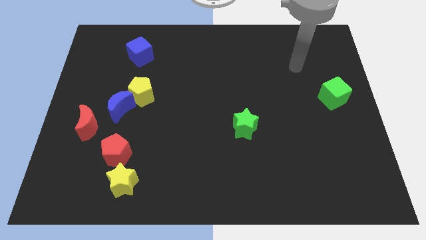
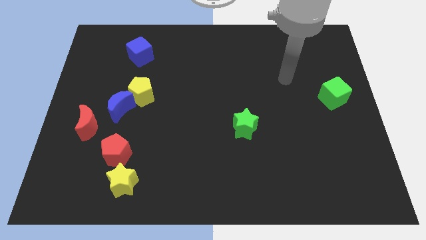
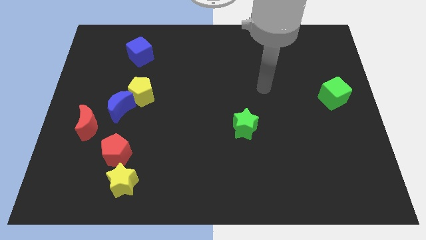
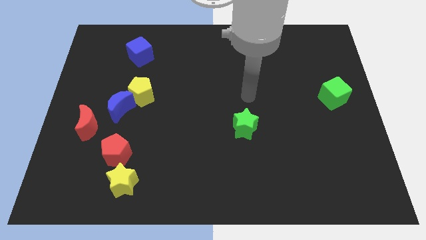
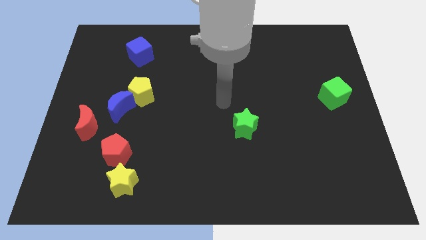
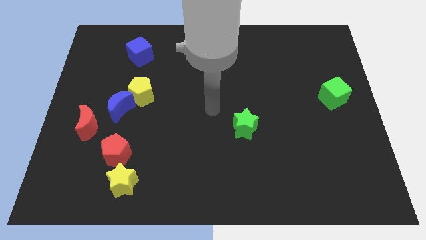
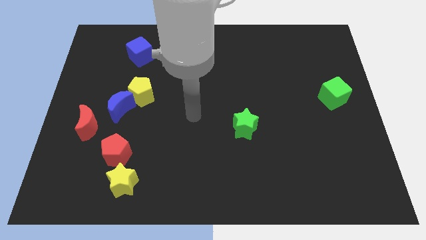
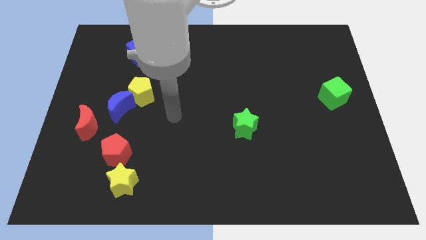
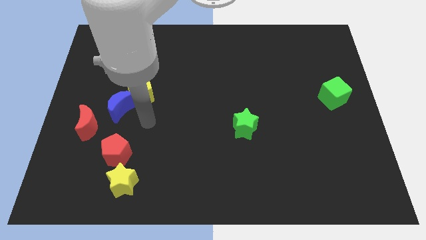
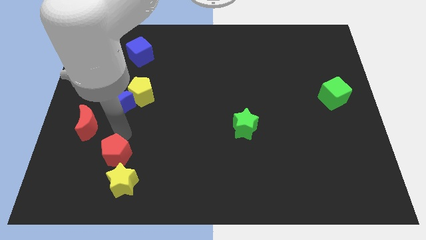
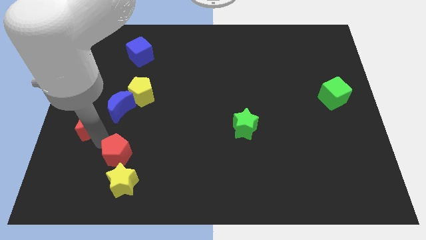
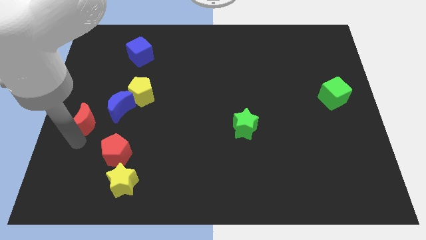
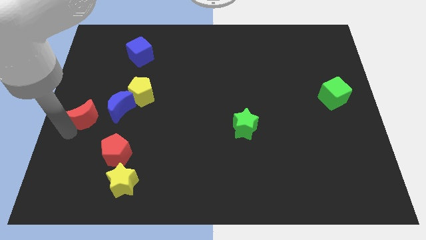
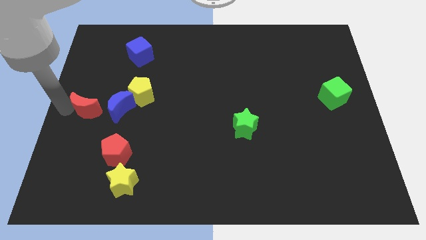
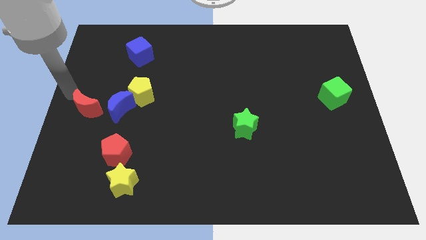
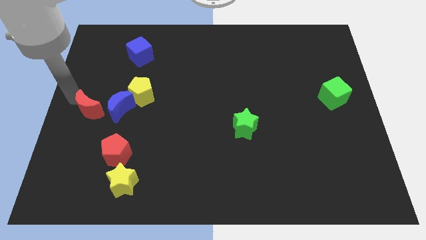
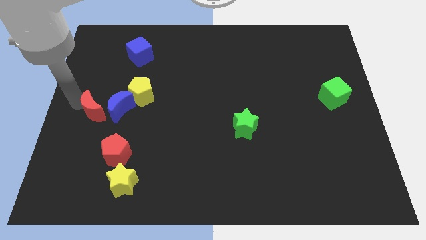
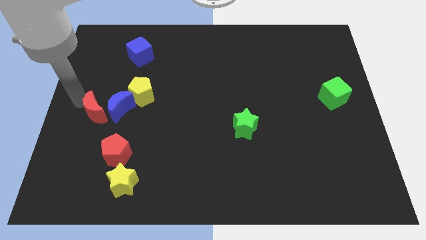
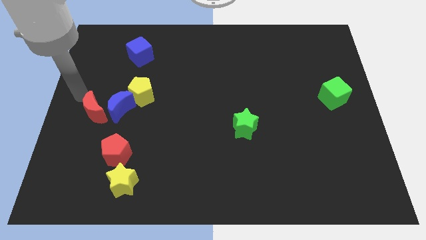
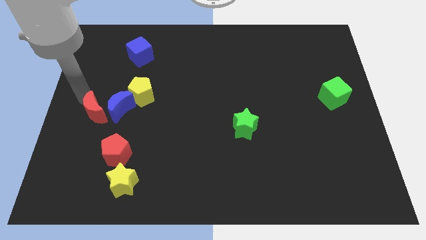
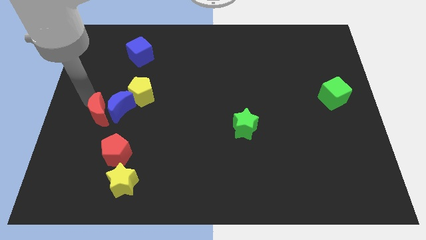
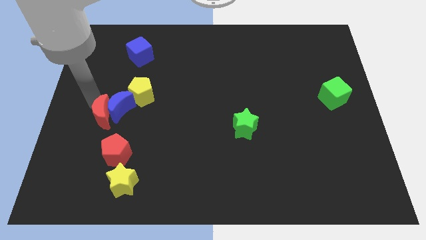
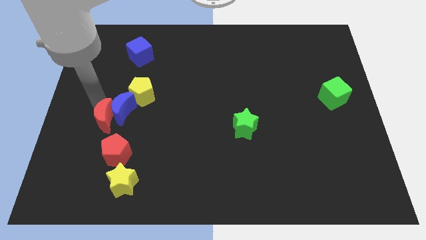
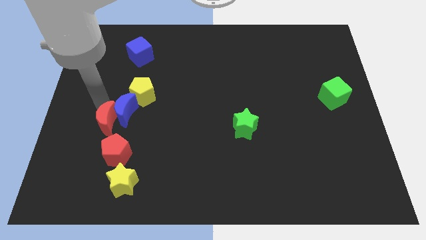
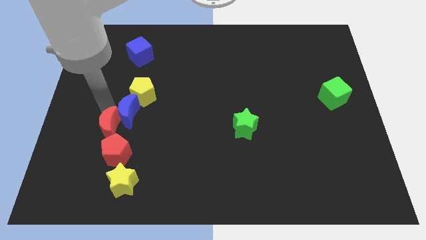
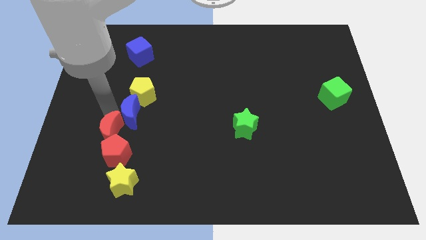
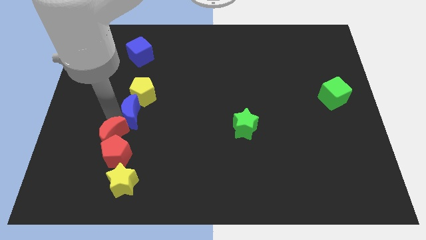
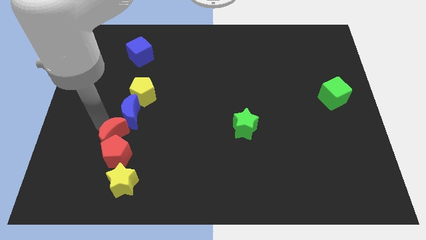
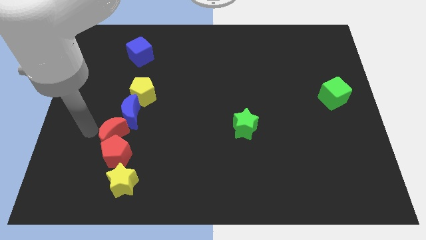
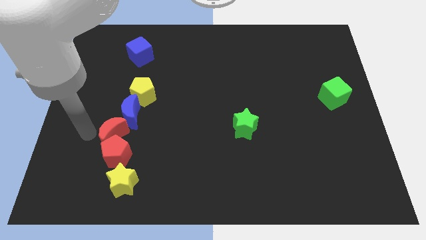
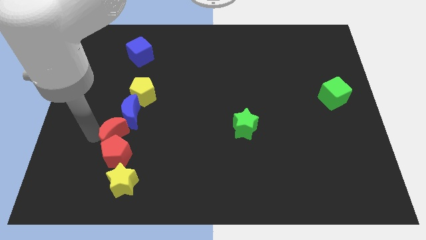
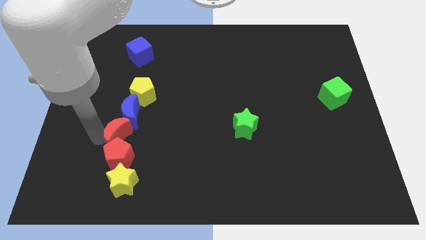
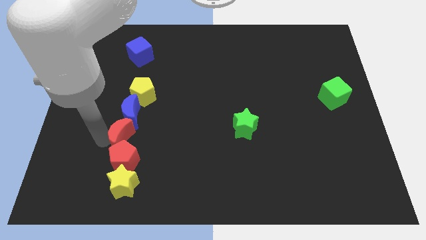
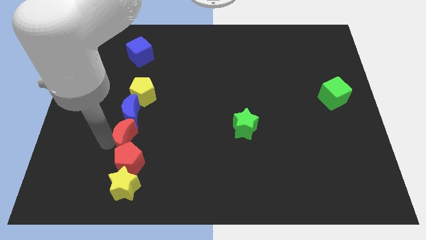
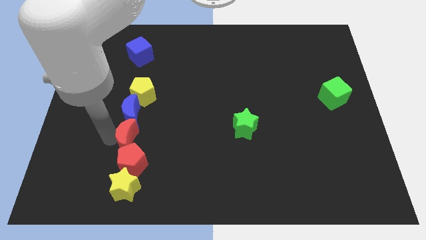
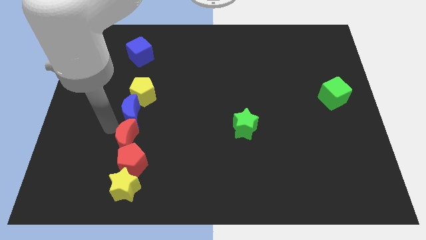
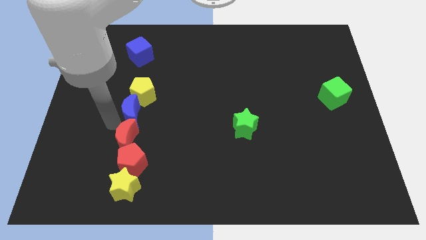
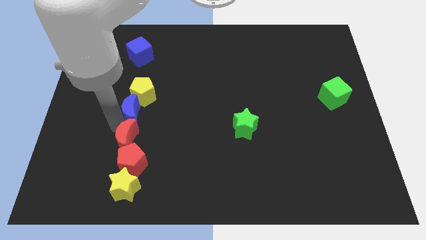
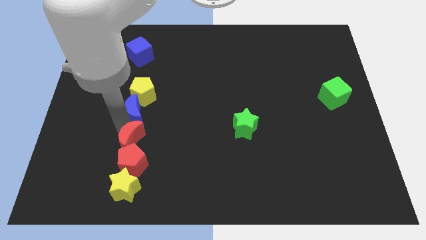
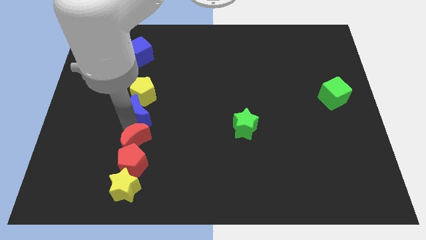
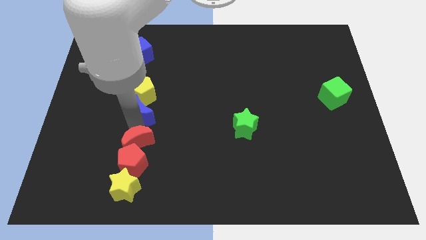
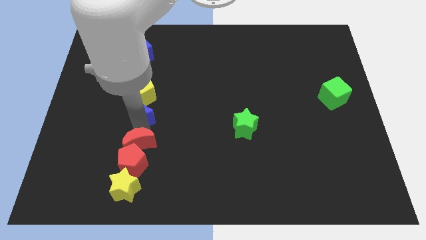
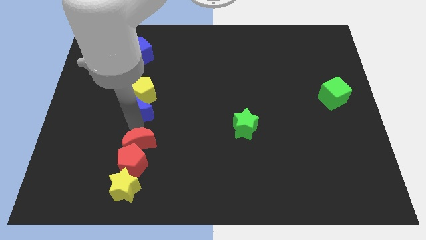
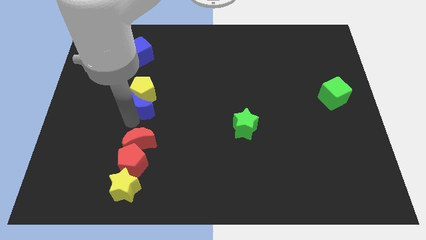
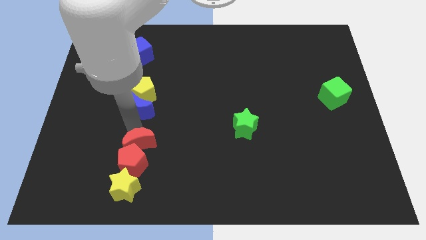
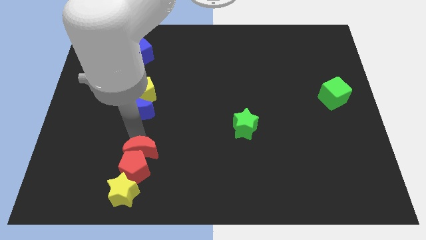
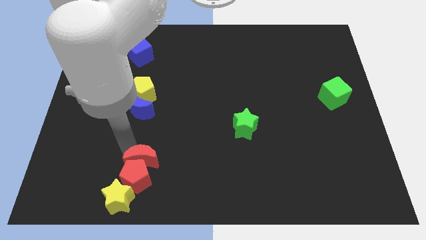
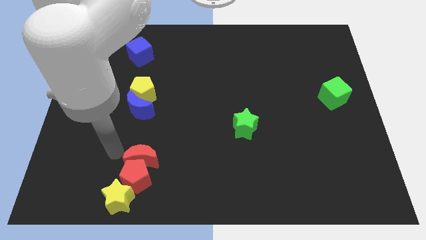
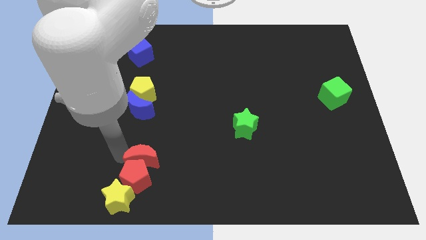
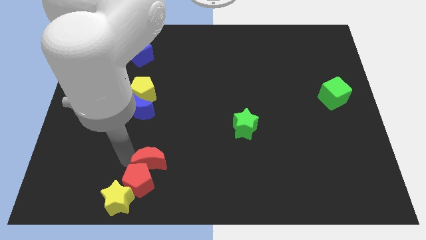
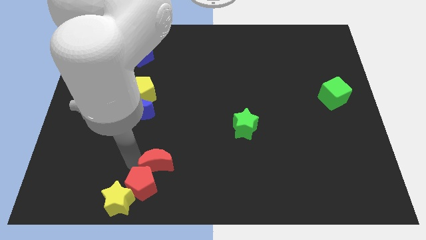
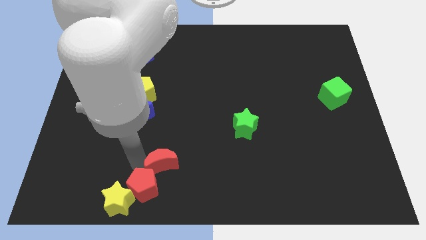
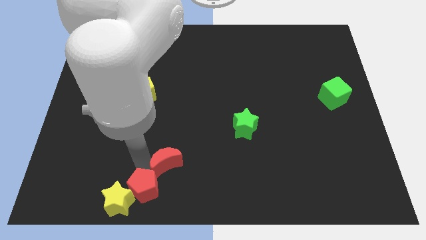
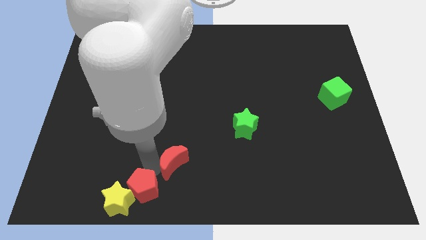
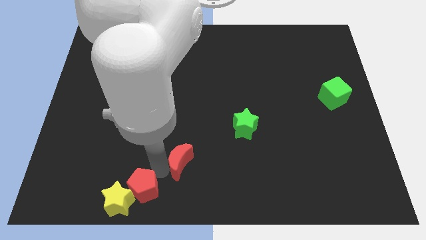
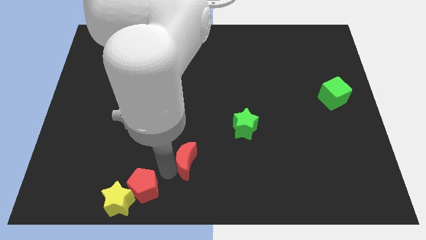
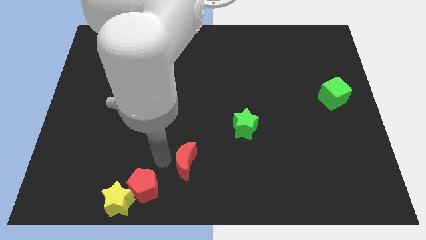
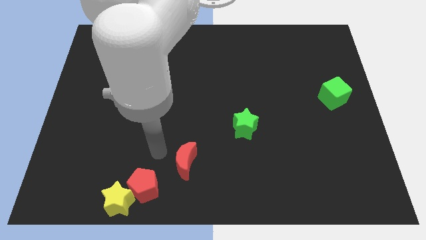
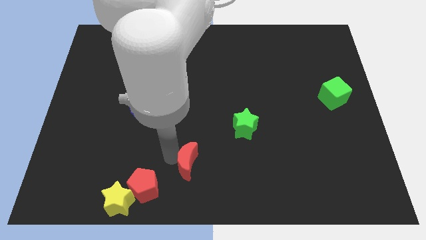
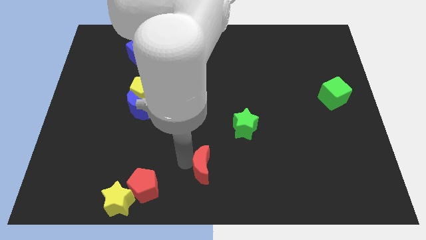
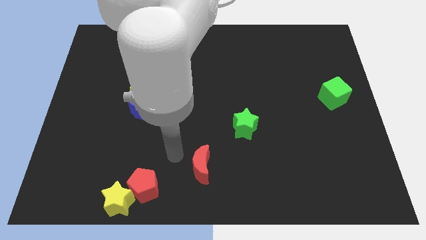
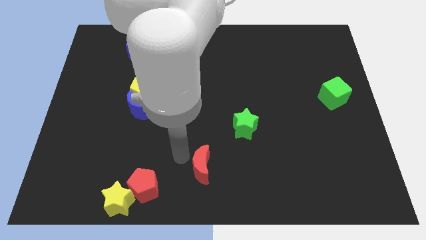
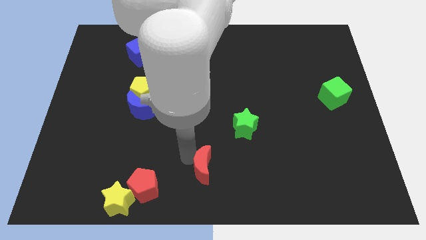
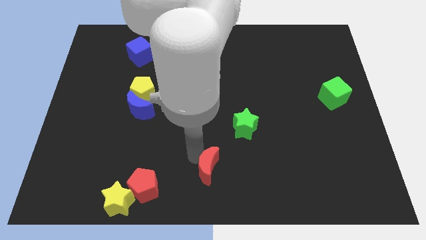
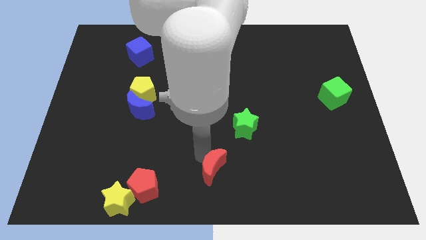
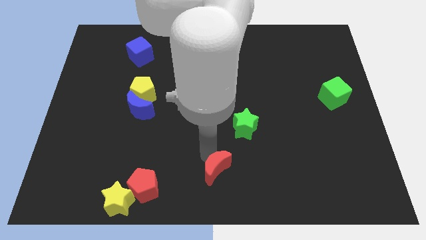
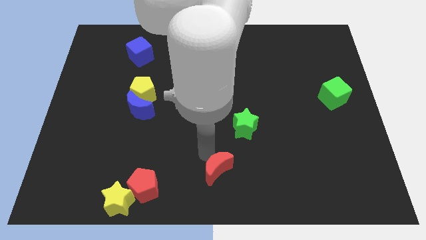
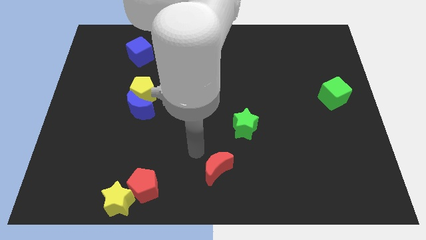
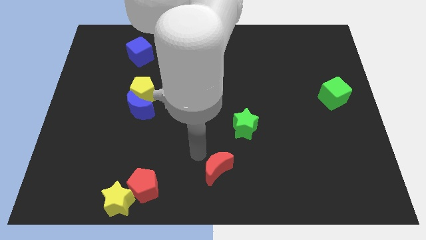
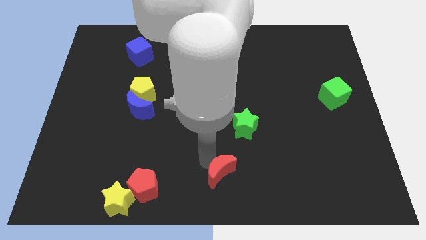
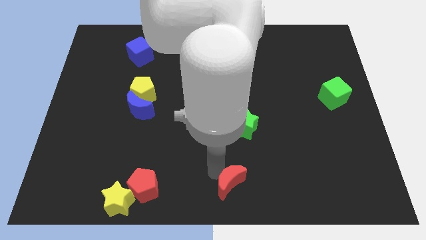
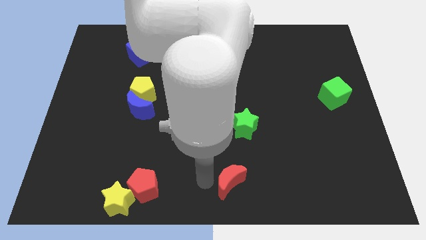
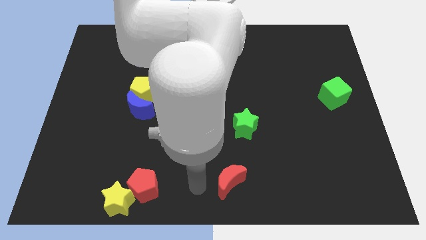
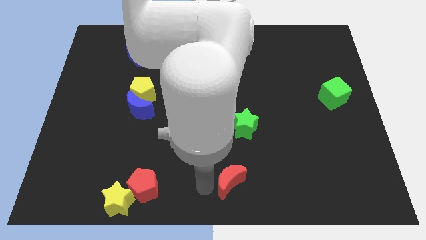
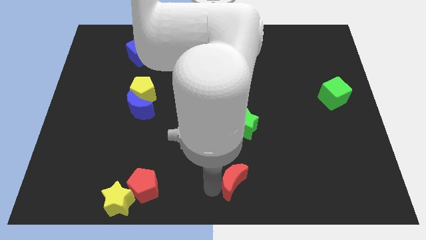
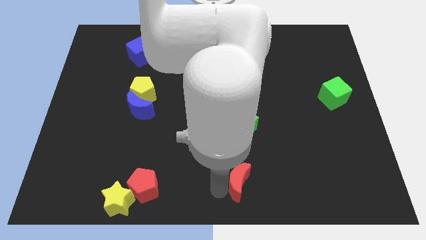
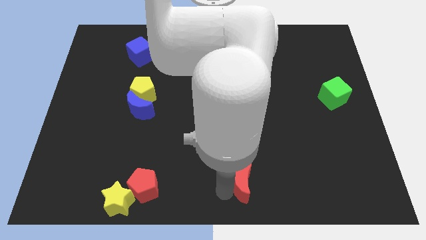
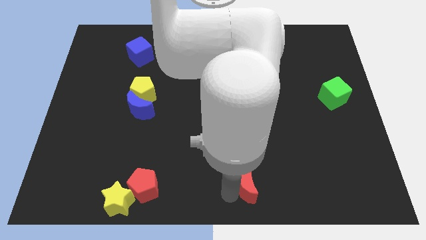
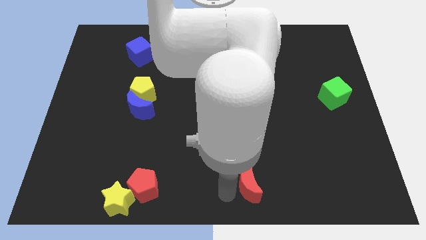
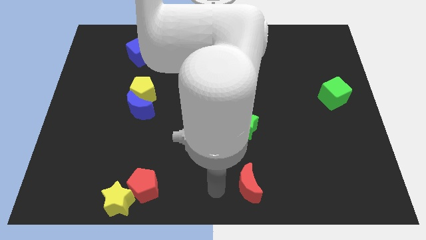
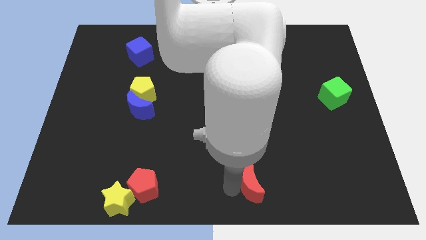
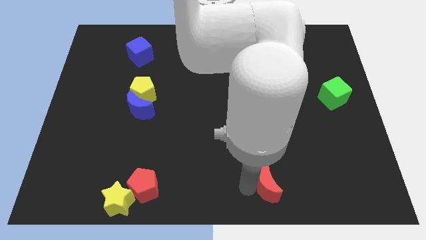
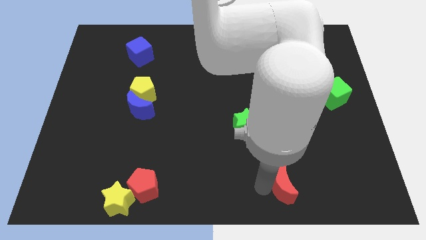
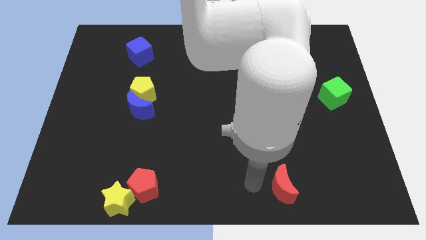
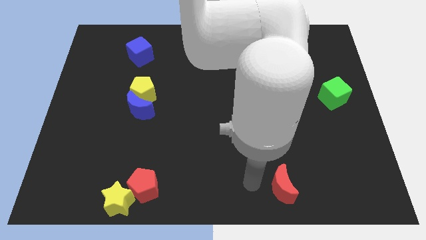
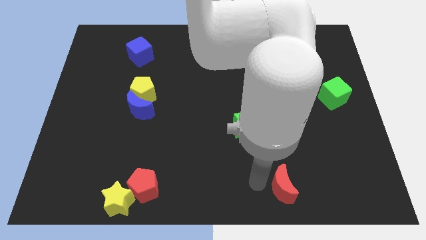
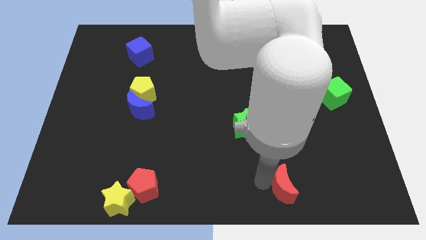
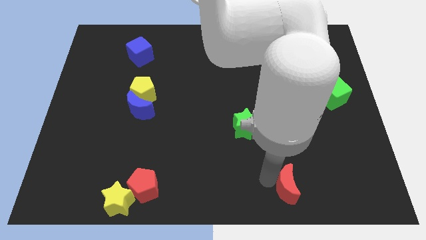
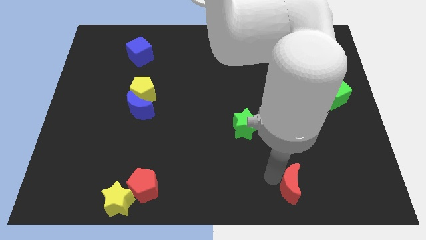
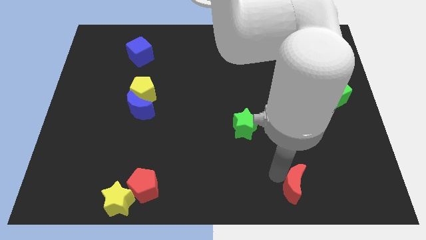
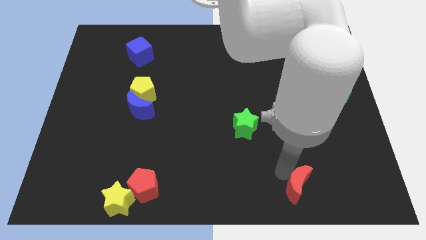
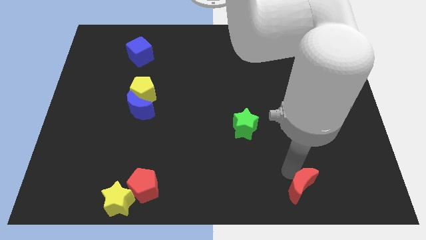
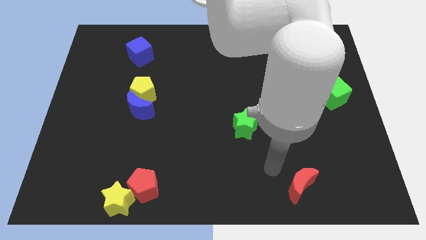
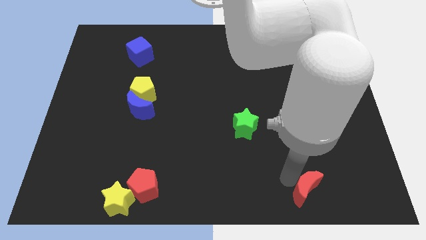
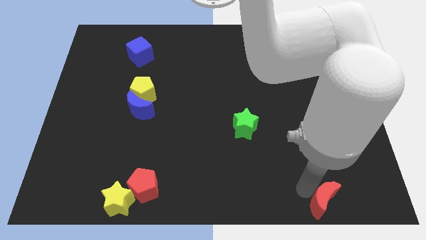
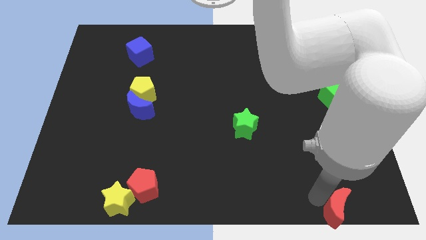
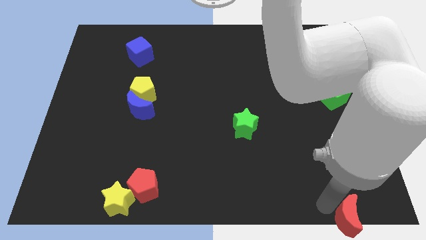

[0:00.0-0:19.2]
slide the red moon to the bottom right
